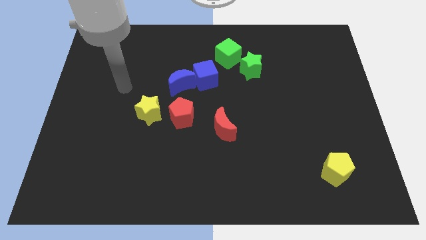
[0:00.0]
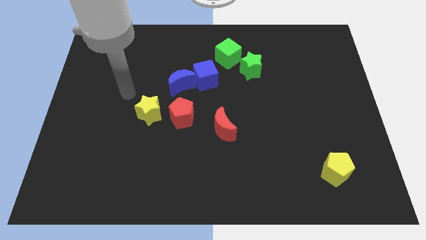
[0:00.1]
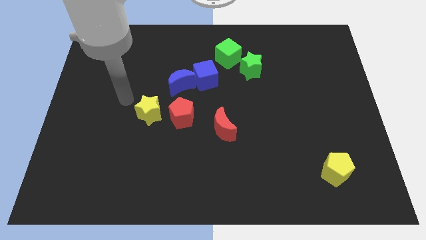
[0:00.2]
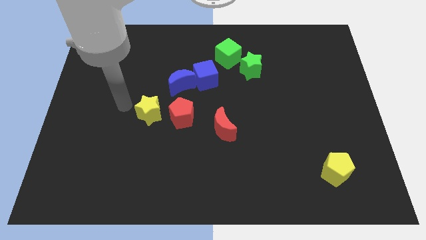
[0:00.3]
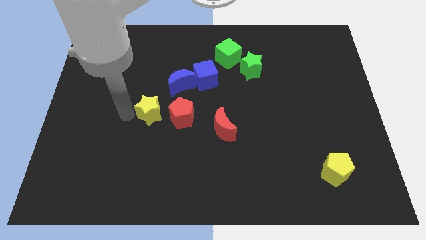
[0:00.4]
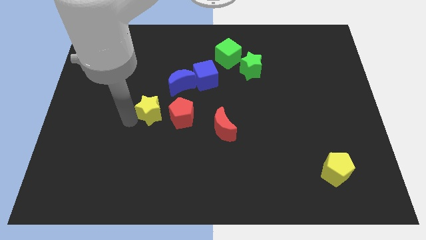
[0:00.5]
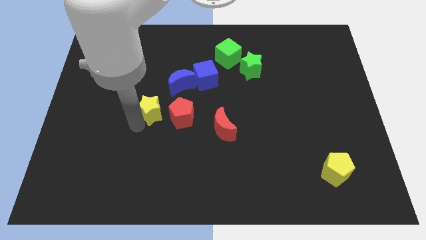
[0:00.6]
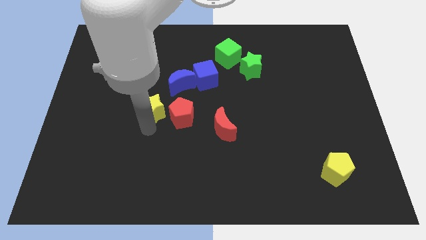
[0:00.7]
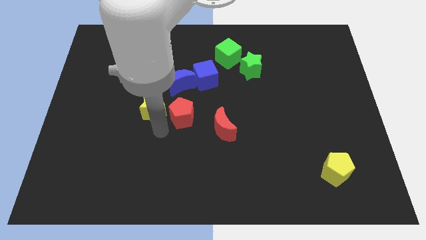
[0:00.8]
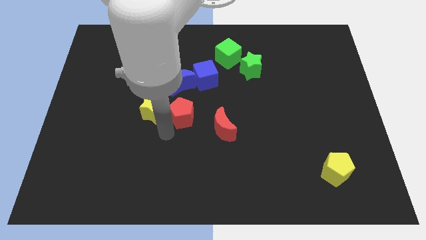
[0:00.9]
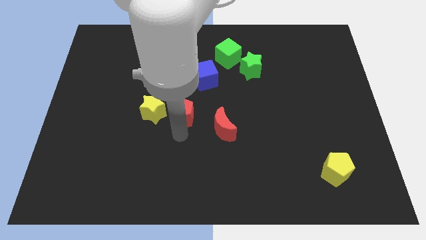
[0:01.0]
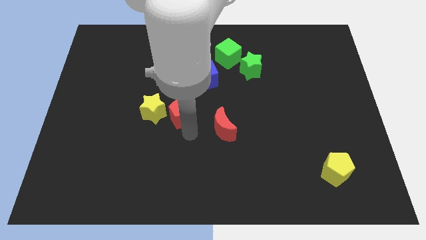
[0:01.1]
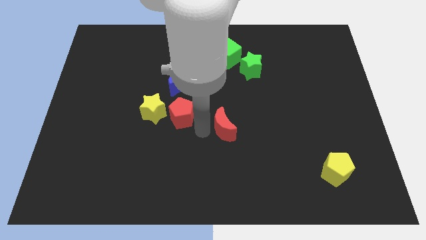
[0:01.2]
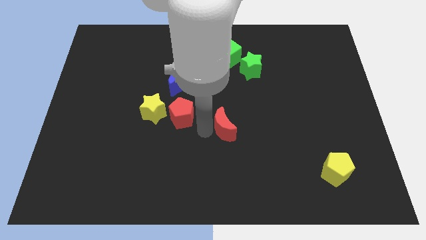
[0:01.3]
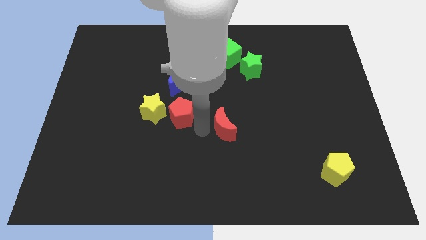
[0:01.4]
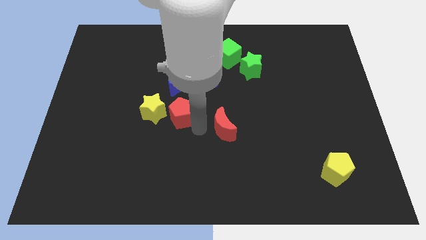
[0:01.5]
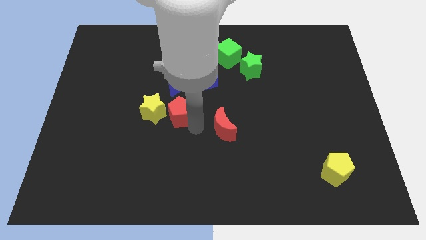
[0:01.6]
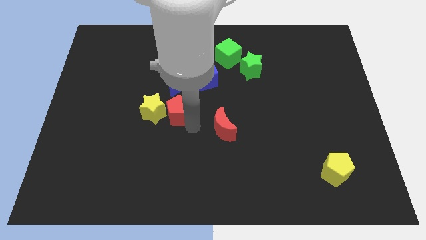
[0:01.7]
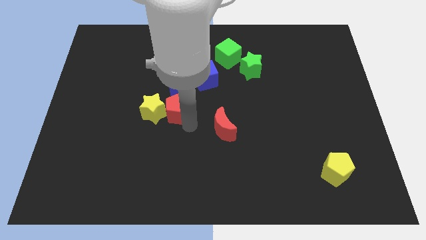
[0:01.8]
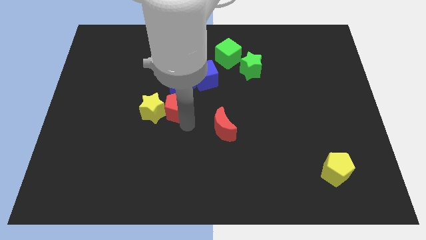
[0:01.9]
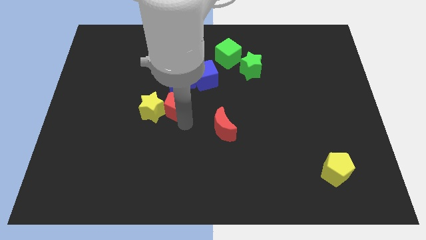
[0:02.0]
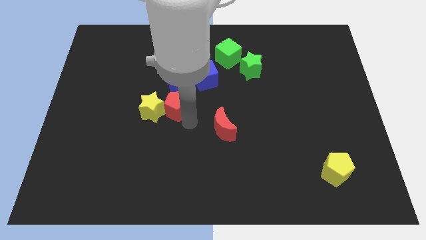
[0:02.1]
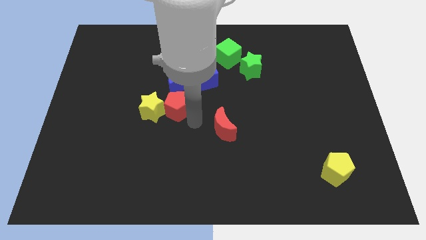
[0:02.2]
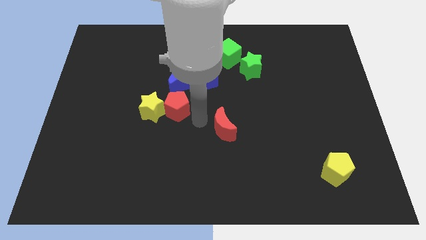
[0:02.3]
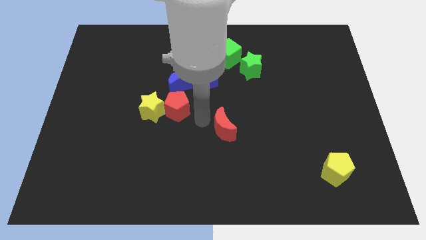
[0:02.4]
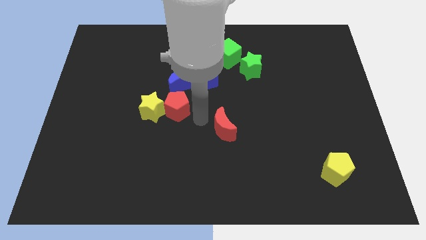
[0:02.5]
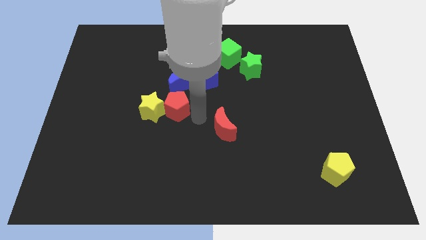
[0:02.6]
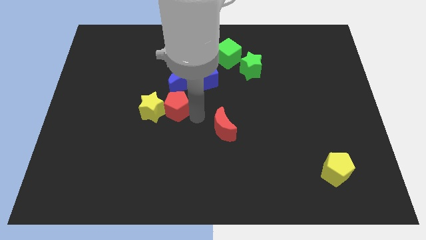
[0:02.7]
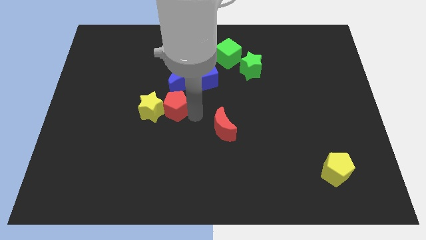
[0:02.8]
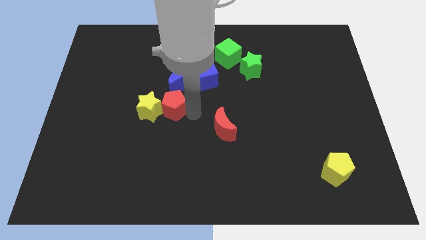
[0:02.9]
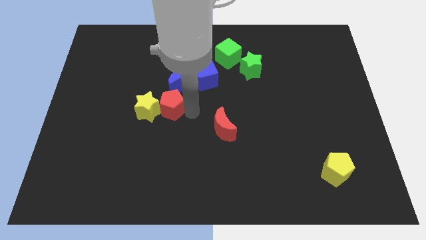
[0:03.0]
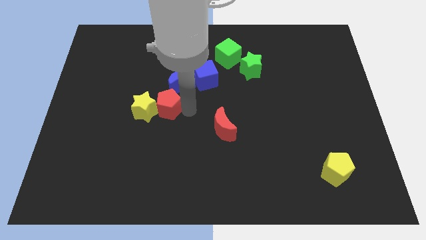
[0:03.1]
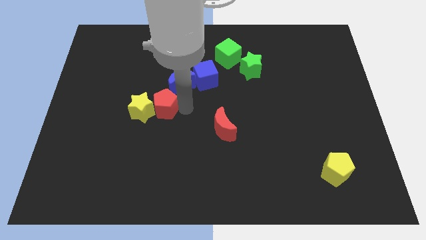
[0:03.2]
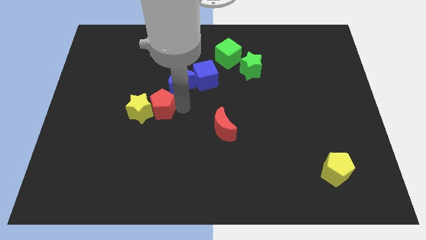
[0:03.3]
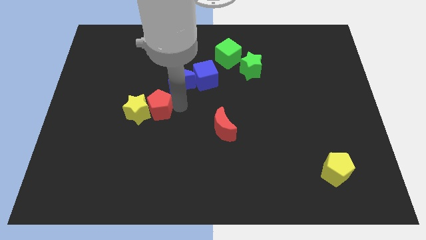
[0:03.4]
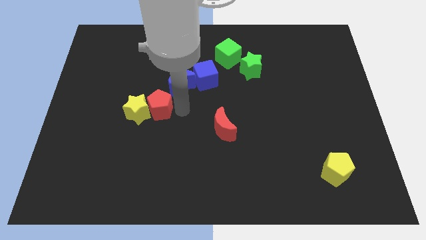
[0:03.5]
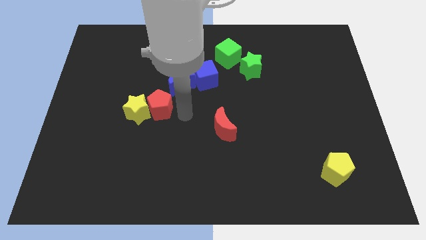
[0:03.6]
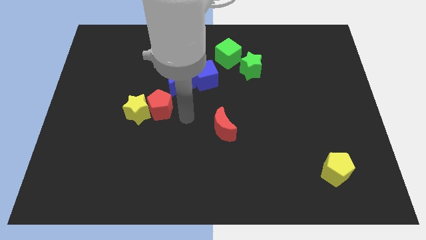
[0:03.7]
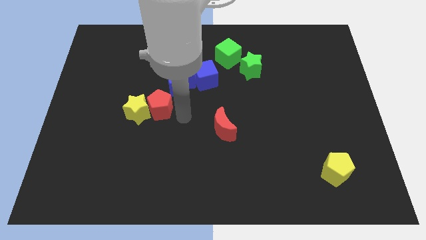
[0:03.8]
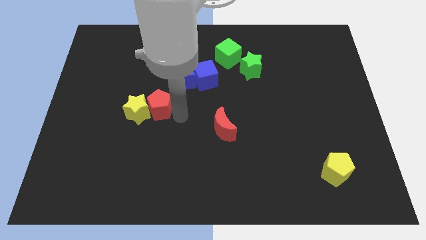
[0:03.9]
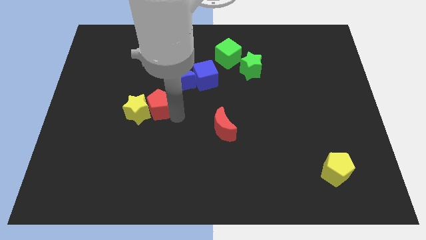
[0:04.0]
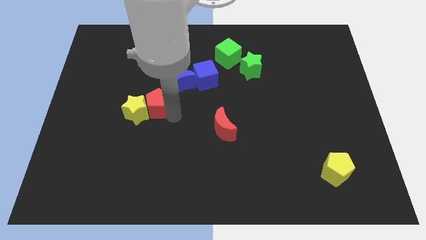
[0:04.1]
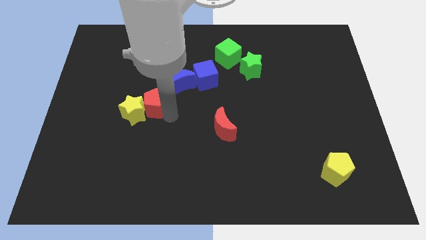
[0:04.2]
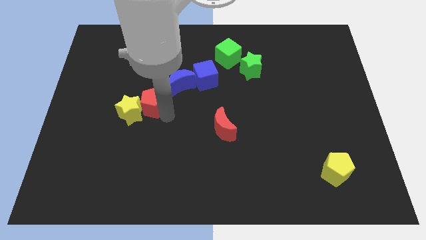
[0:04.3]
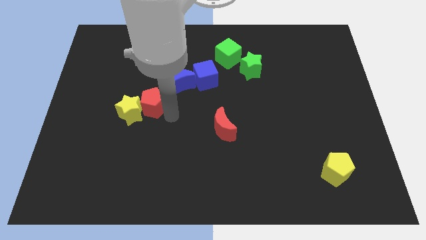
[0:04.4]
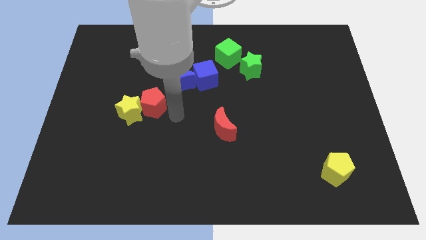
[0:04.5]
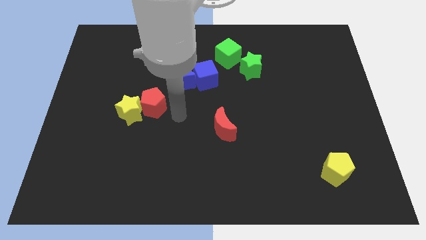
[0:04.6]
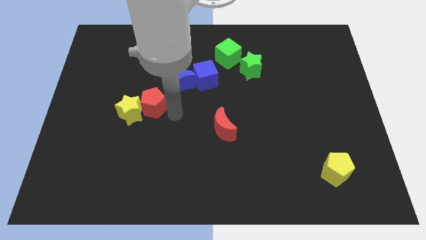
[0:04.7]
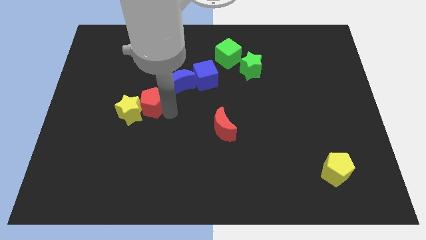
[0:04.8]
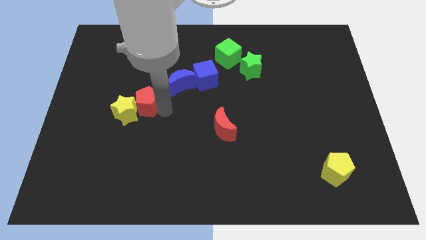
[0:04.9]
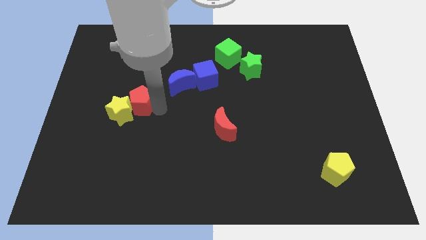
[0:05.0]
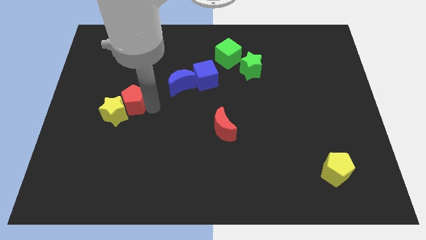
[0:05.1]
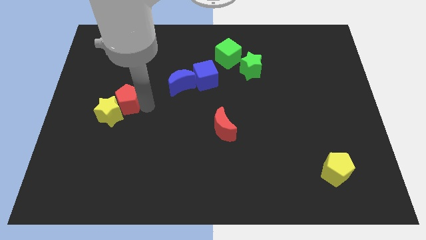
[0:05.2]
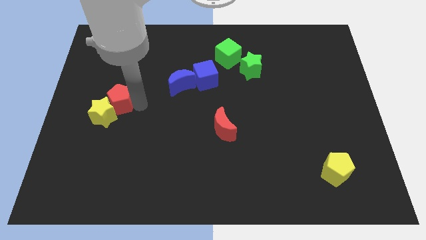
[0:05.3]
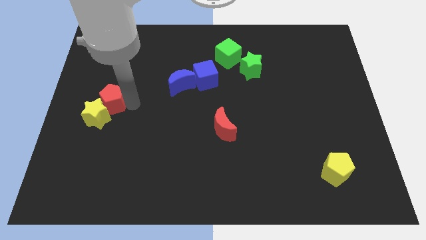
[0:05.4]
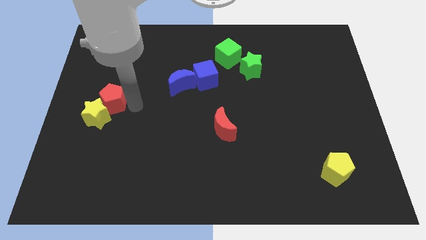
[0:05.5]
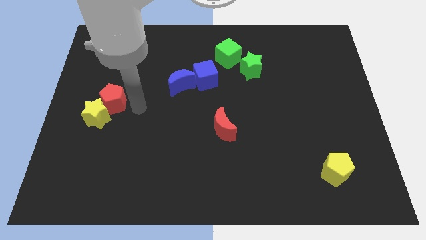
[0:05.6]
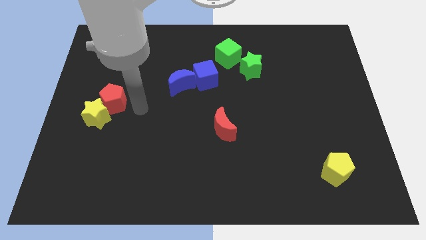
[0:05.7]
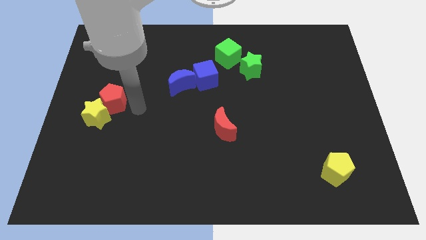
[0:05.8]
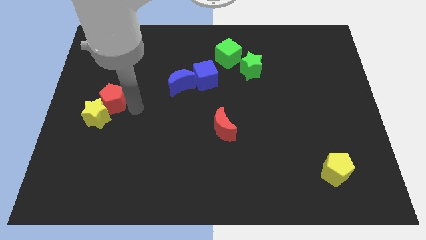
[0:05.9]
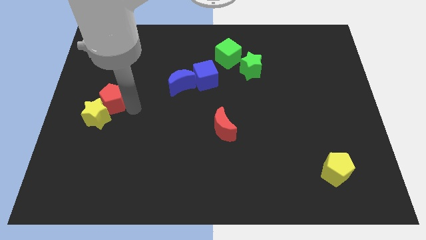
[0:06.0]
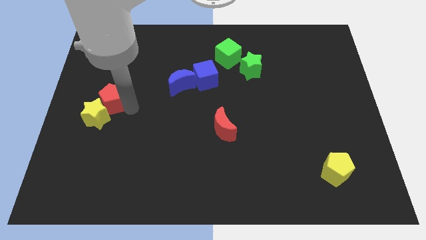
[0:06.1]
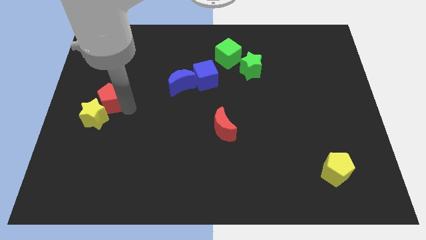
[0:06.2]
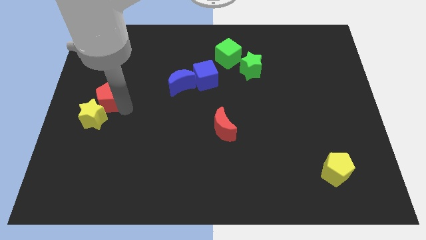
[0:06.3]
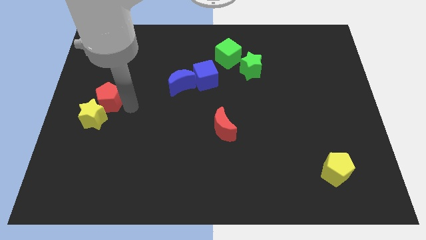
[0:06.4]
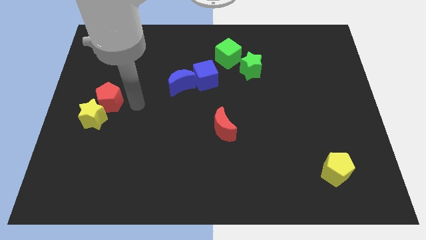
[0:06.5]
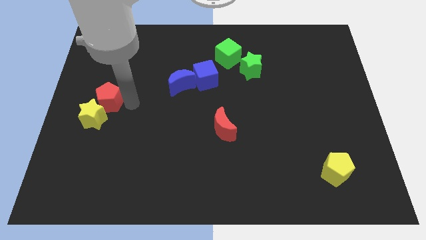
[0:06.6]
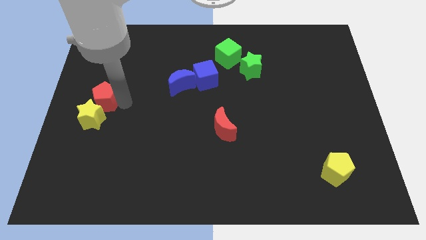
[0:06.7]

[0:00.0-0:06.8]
move the red pentagon to the center left
